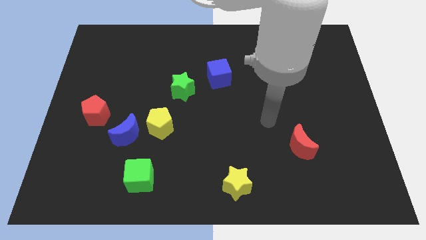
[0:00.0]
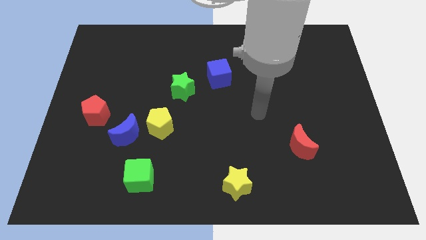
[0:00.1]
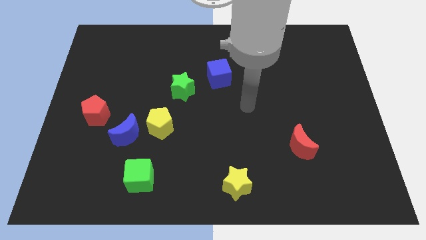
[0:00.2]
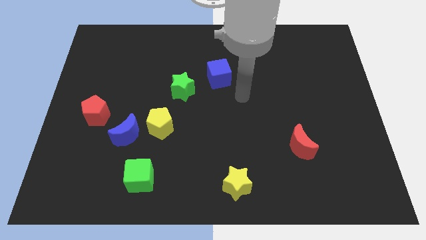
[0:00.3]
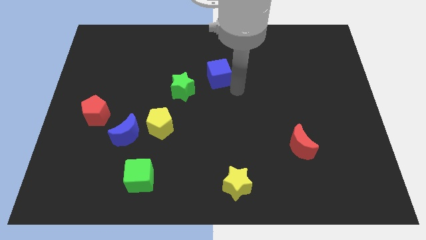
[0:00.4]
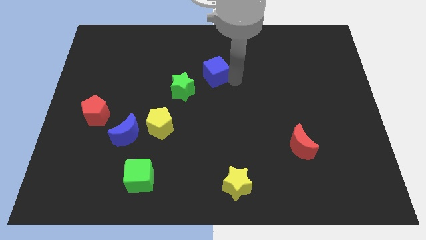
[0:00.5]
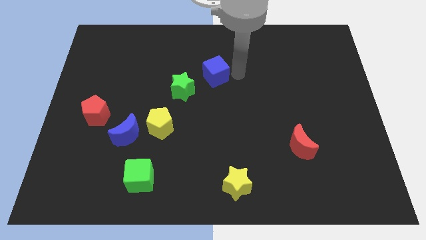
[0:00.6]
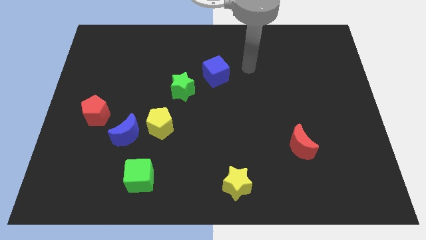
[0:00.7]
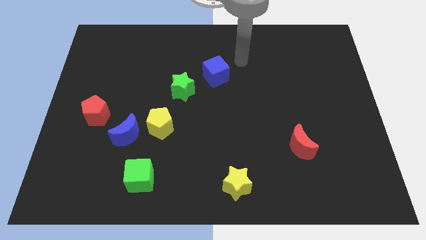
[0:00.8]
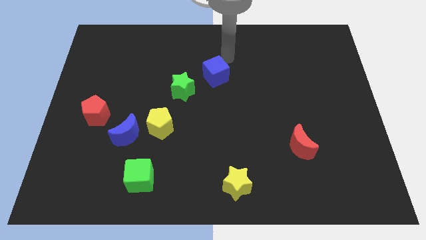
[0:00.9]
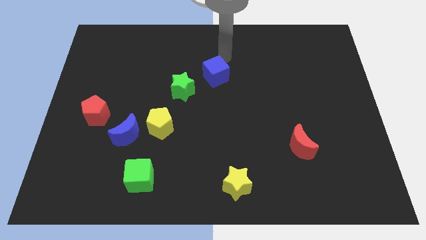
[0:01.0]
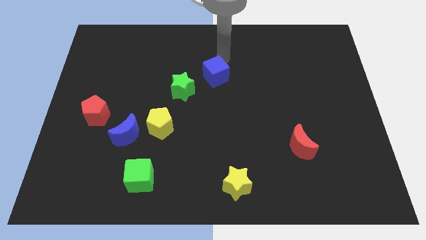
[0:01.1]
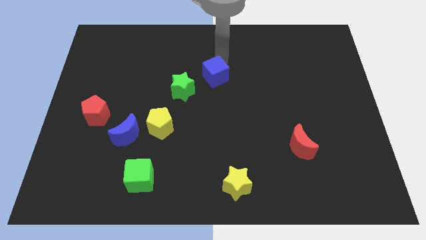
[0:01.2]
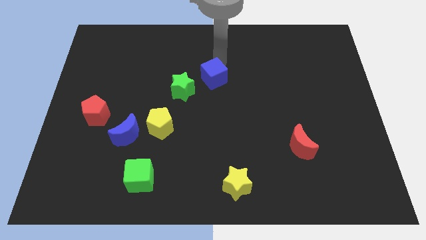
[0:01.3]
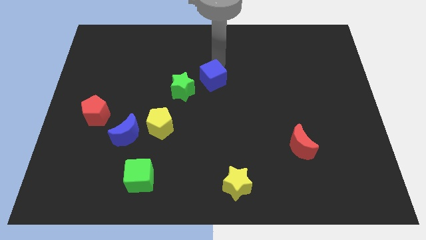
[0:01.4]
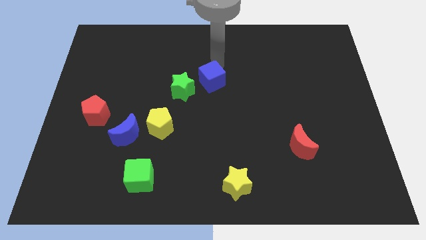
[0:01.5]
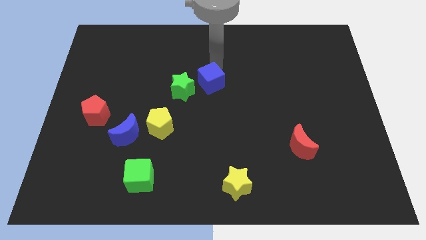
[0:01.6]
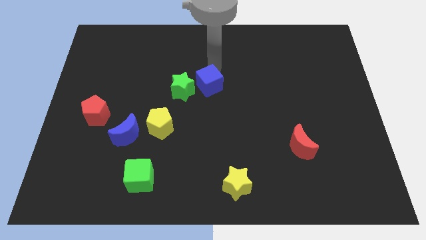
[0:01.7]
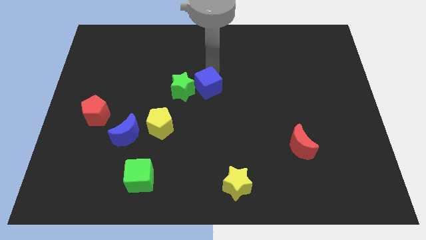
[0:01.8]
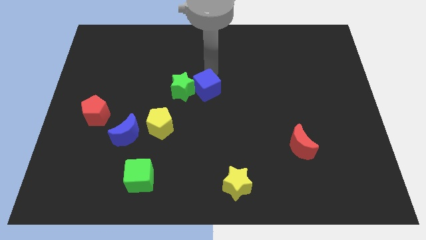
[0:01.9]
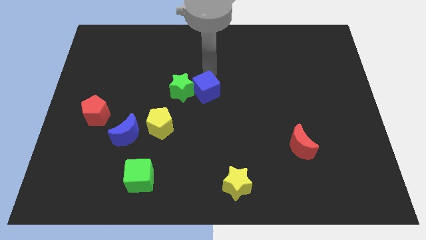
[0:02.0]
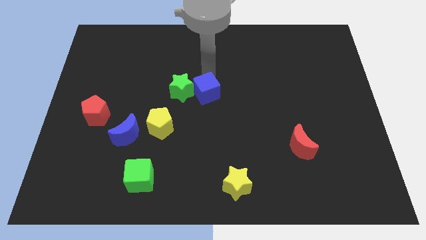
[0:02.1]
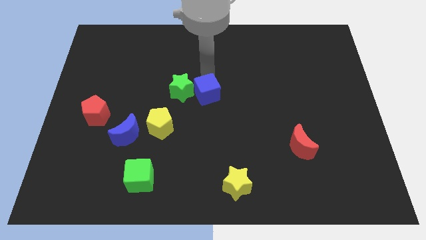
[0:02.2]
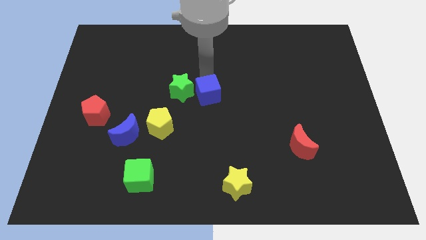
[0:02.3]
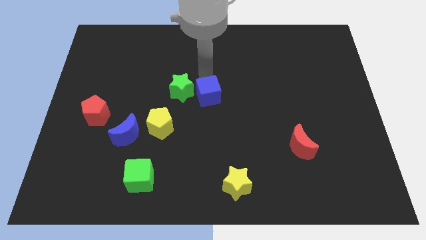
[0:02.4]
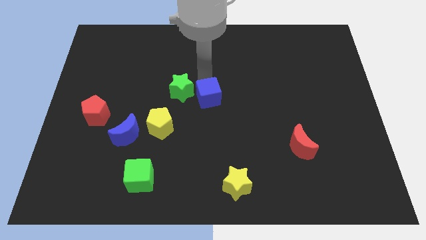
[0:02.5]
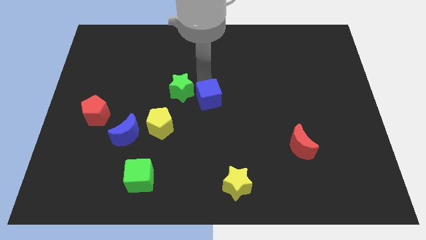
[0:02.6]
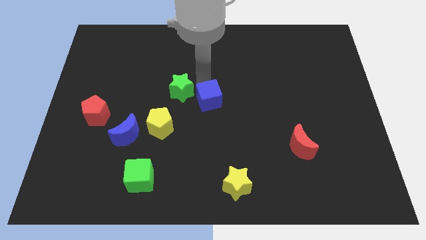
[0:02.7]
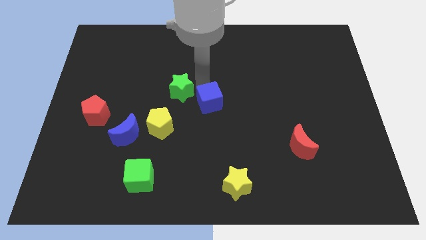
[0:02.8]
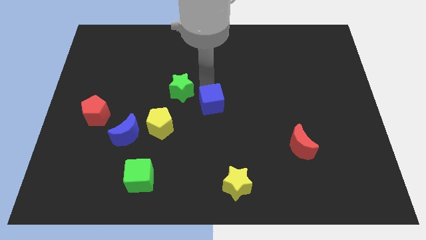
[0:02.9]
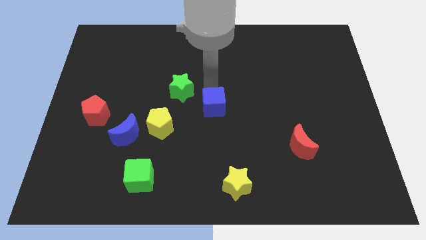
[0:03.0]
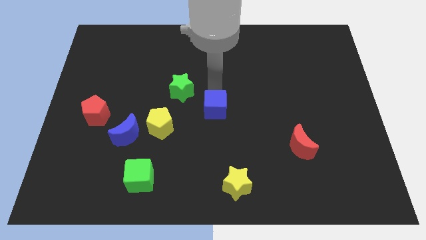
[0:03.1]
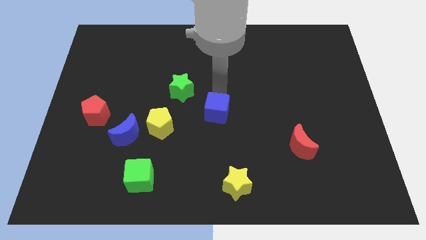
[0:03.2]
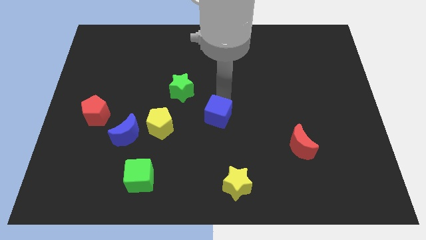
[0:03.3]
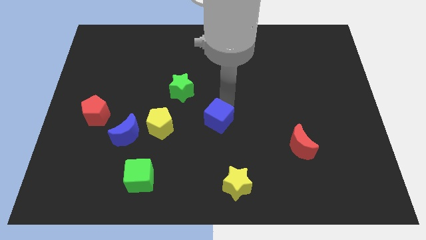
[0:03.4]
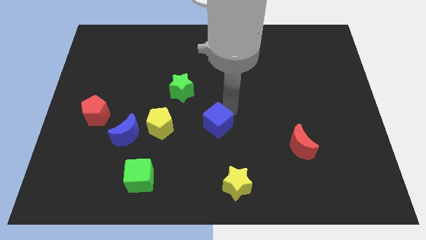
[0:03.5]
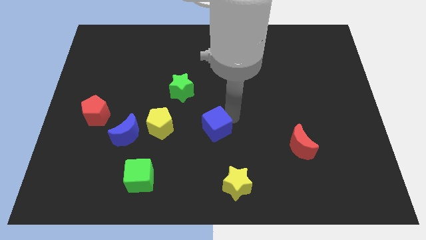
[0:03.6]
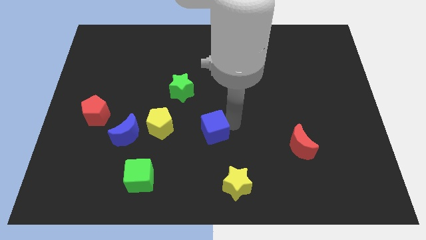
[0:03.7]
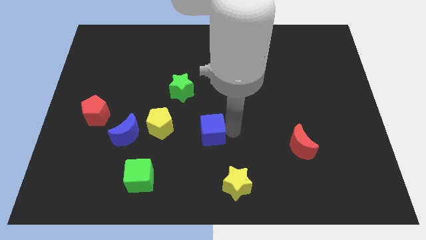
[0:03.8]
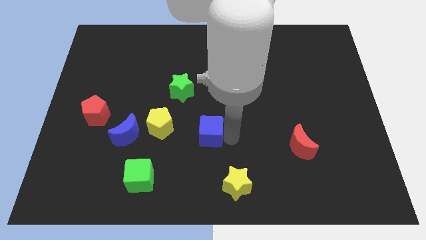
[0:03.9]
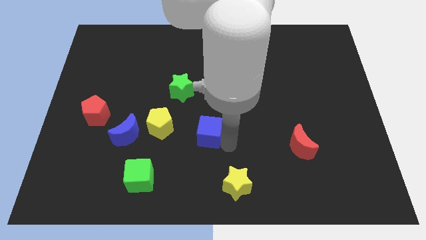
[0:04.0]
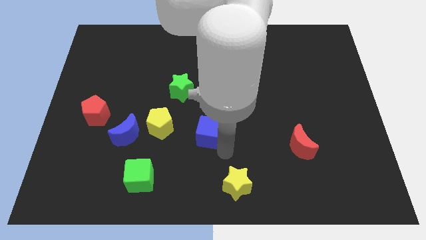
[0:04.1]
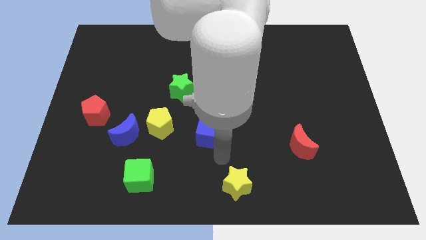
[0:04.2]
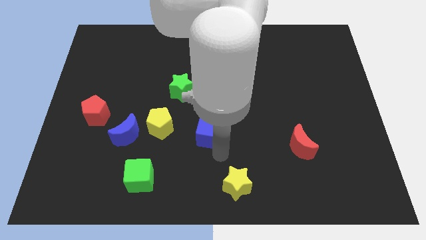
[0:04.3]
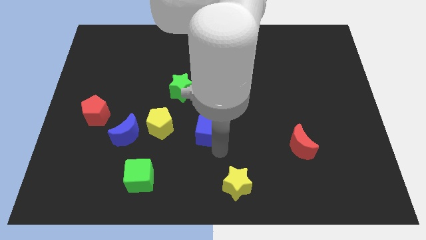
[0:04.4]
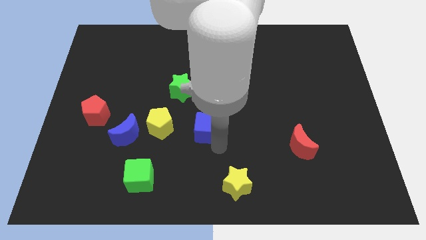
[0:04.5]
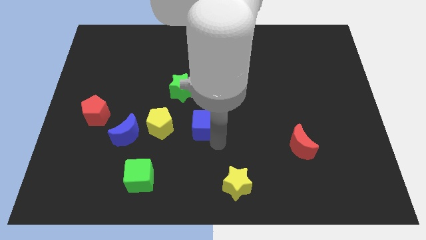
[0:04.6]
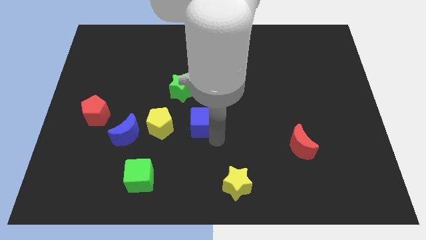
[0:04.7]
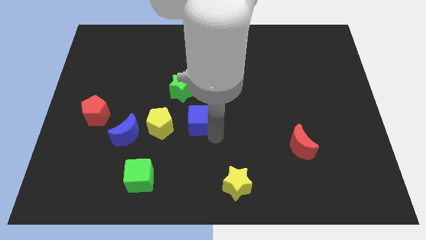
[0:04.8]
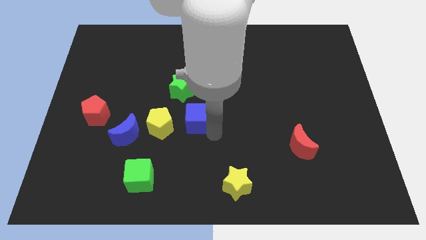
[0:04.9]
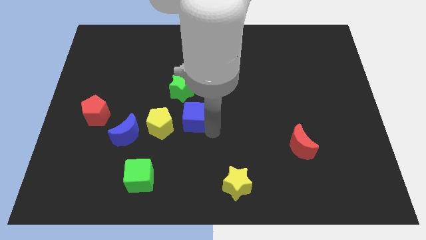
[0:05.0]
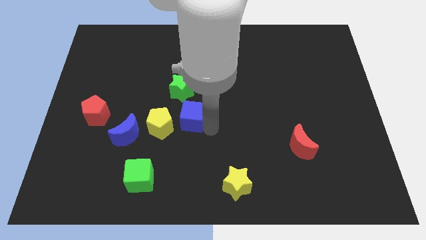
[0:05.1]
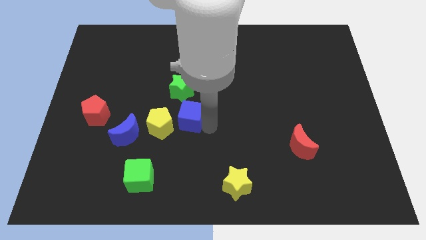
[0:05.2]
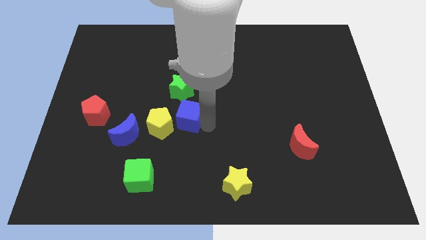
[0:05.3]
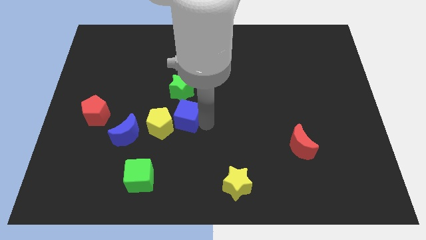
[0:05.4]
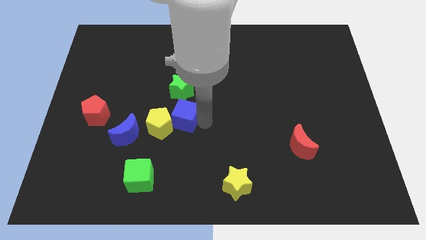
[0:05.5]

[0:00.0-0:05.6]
put the blue cube to the yellow pentagon

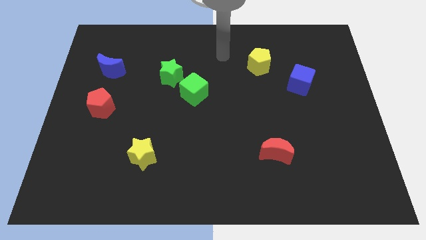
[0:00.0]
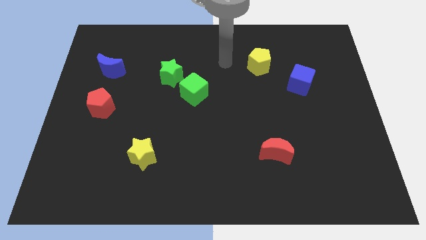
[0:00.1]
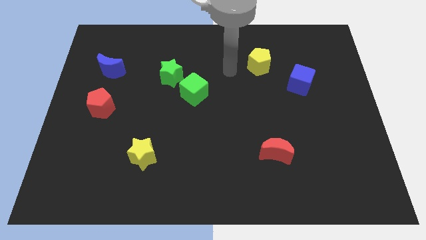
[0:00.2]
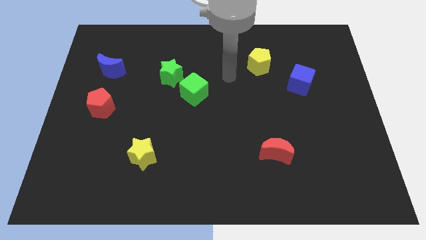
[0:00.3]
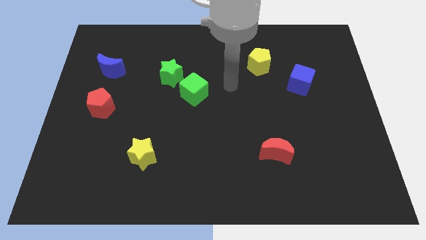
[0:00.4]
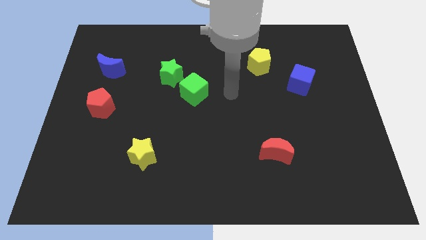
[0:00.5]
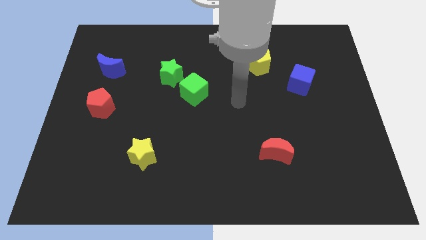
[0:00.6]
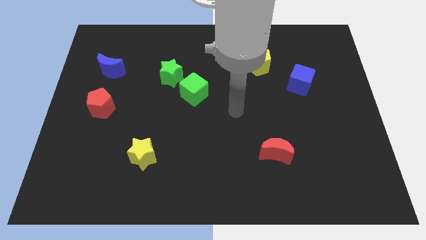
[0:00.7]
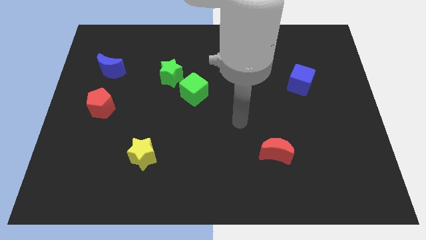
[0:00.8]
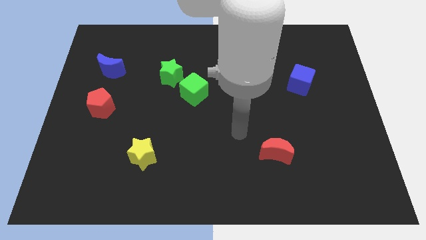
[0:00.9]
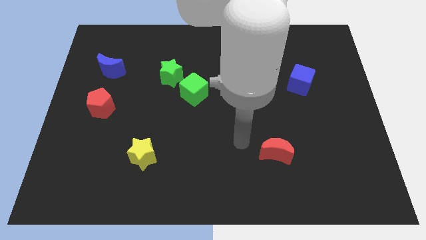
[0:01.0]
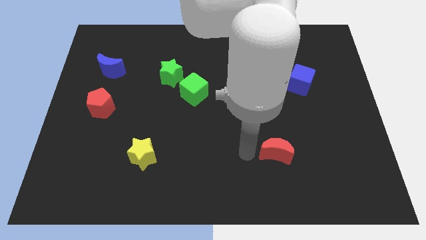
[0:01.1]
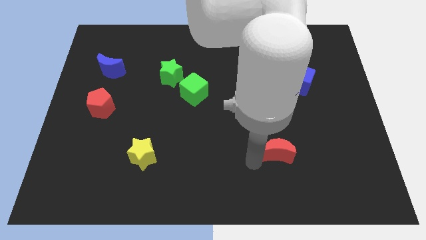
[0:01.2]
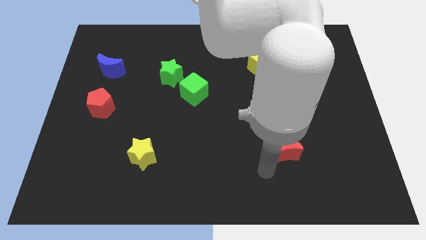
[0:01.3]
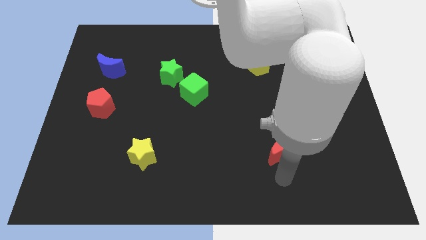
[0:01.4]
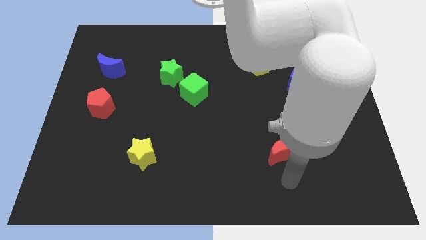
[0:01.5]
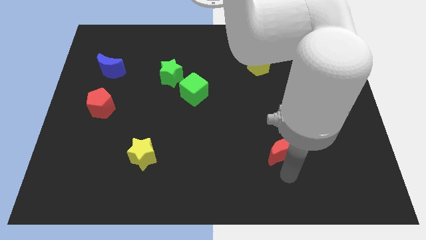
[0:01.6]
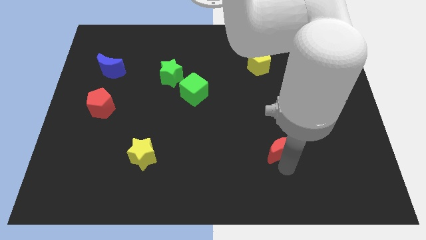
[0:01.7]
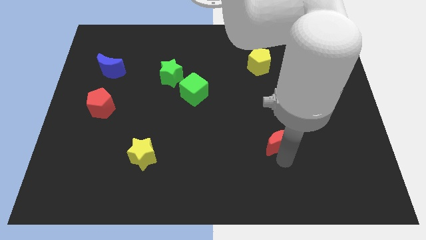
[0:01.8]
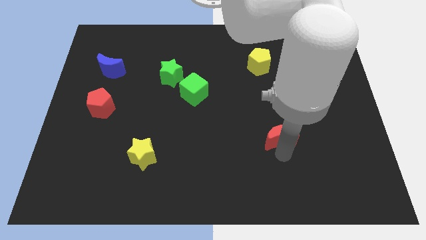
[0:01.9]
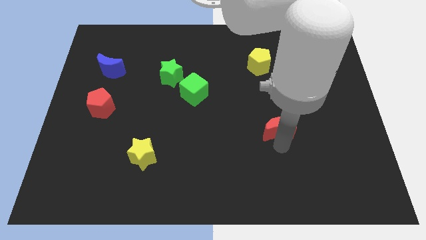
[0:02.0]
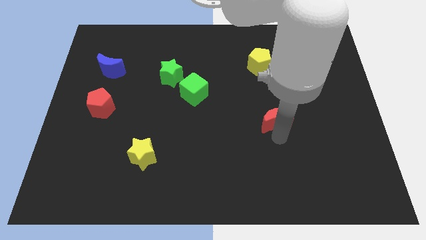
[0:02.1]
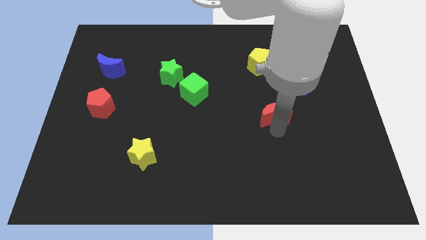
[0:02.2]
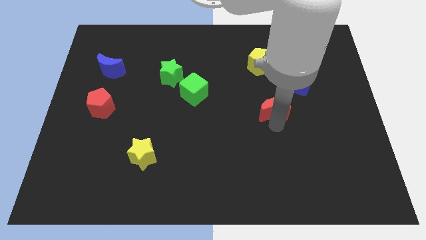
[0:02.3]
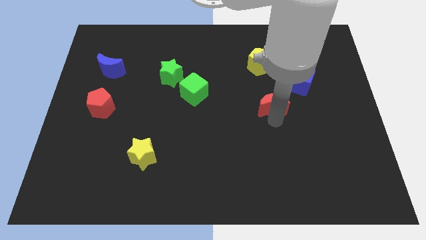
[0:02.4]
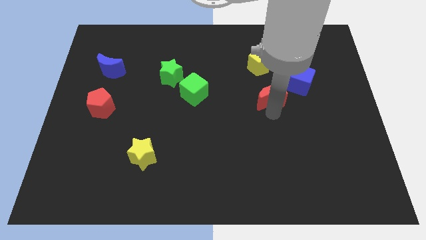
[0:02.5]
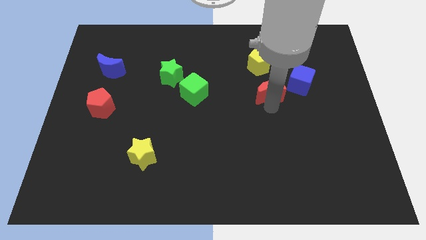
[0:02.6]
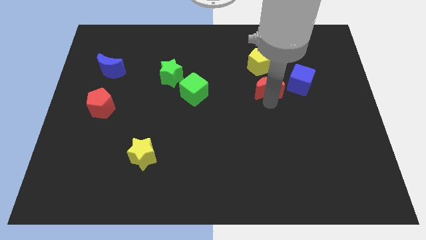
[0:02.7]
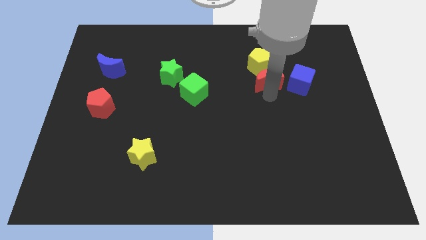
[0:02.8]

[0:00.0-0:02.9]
put the red moon close to the yellow pentagon
